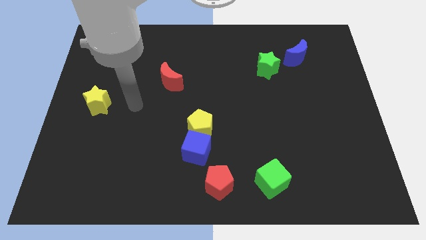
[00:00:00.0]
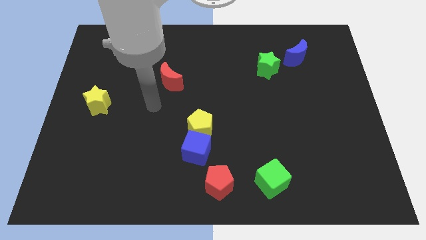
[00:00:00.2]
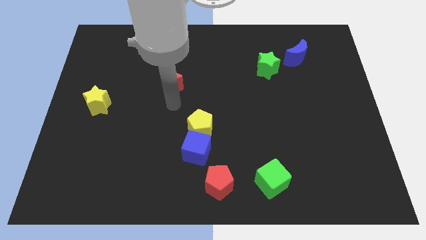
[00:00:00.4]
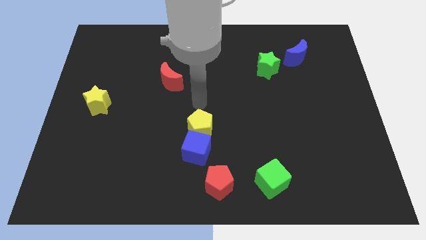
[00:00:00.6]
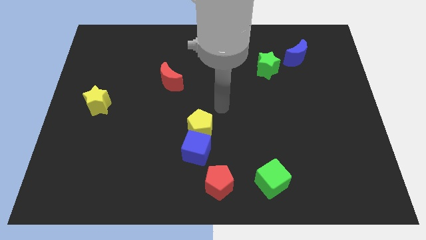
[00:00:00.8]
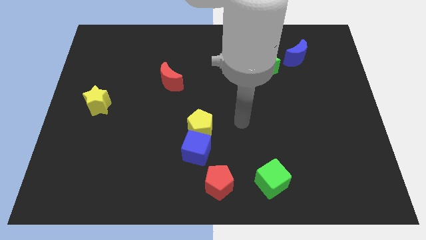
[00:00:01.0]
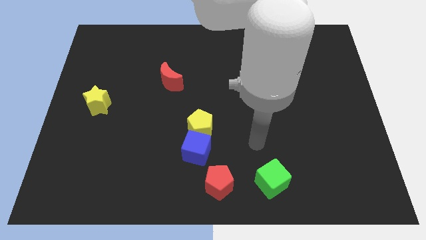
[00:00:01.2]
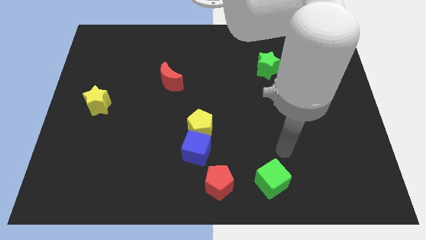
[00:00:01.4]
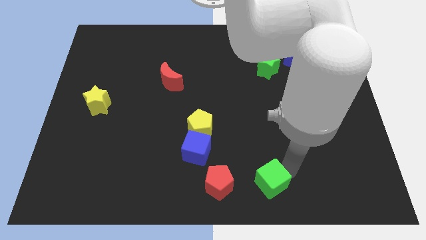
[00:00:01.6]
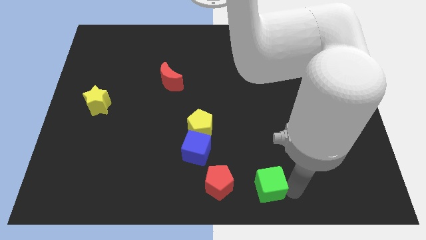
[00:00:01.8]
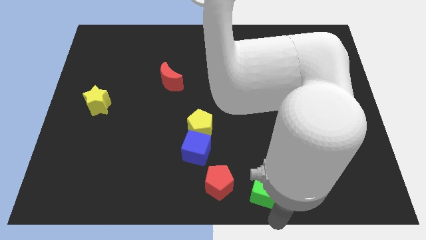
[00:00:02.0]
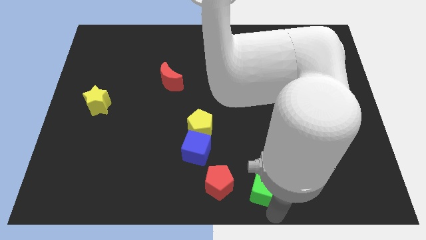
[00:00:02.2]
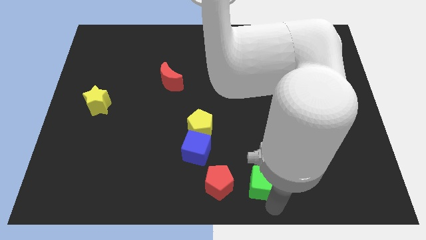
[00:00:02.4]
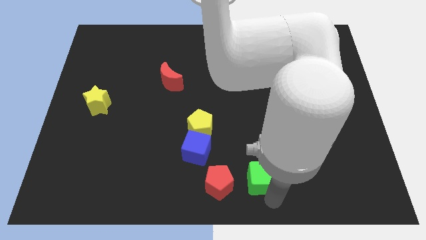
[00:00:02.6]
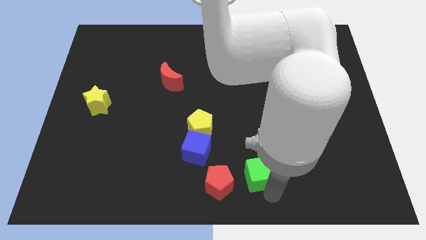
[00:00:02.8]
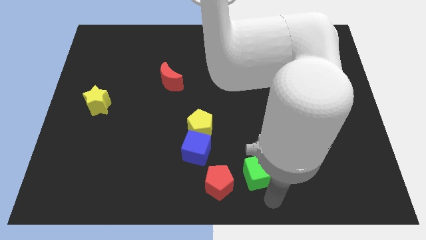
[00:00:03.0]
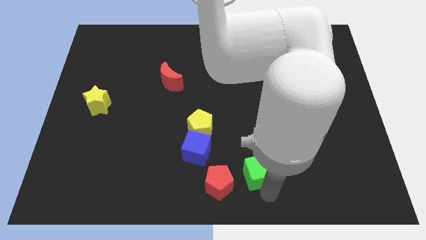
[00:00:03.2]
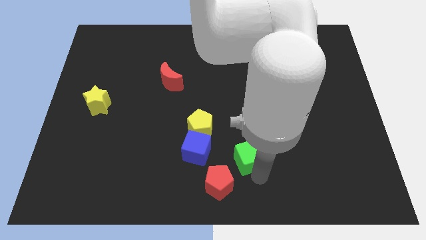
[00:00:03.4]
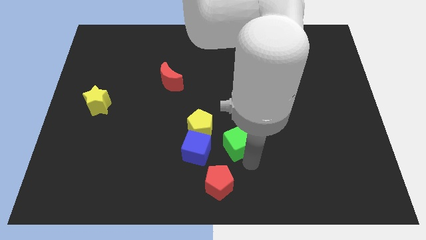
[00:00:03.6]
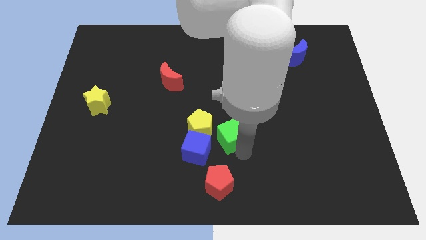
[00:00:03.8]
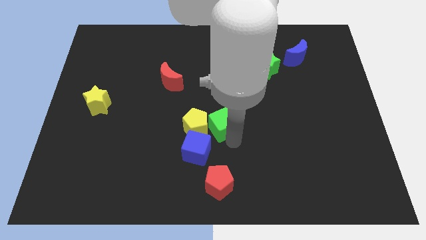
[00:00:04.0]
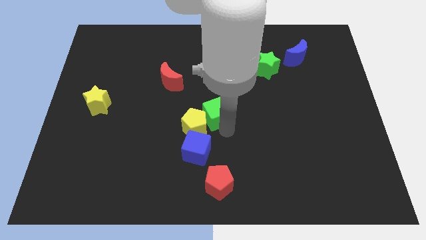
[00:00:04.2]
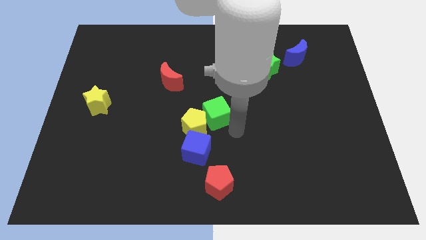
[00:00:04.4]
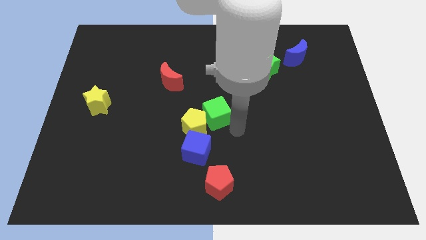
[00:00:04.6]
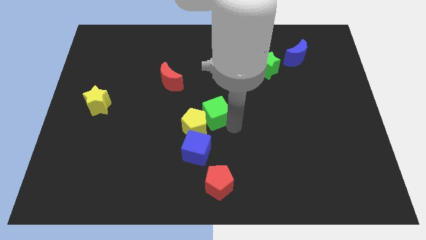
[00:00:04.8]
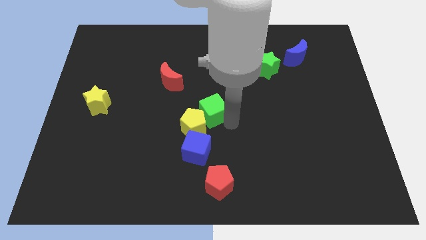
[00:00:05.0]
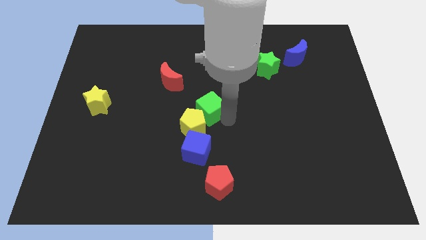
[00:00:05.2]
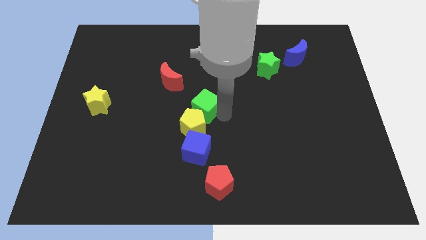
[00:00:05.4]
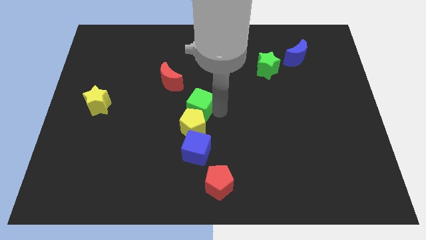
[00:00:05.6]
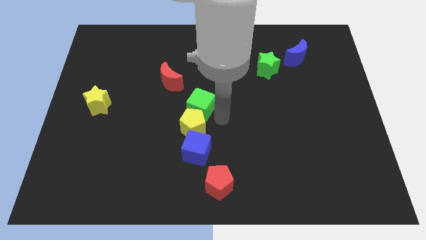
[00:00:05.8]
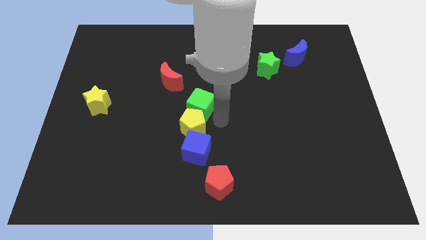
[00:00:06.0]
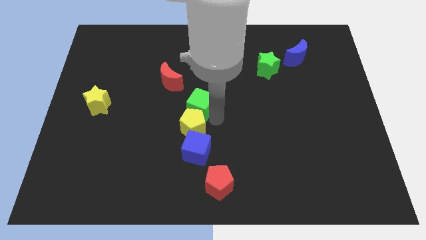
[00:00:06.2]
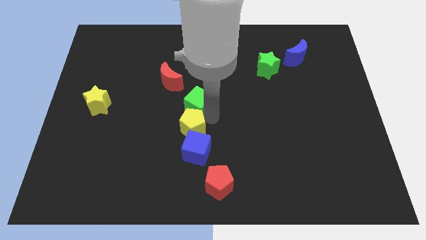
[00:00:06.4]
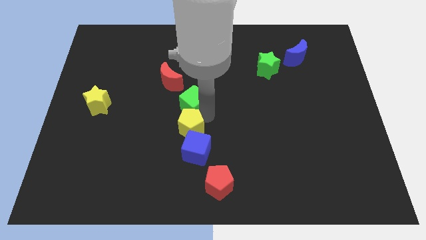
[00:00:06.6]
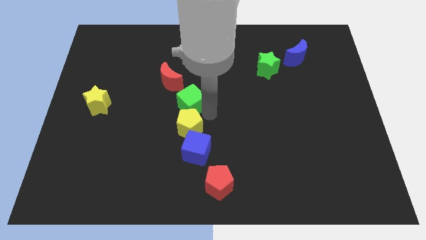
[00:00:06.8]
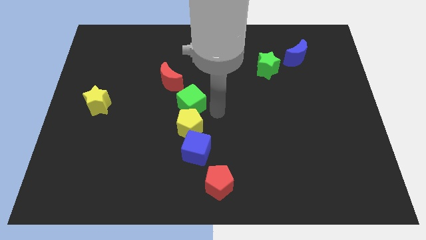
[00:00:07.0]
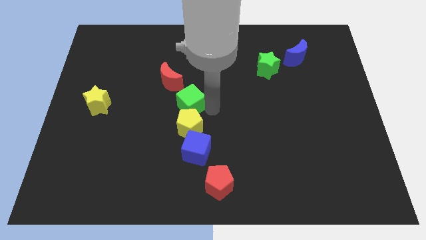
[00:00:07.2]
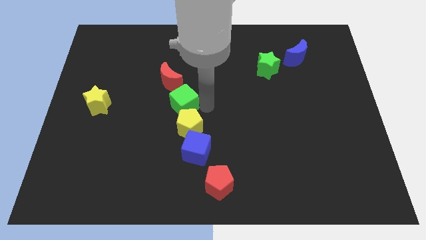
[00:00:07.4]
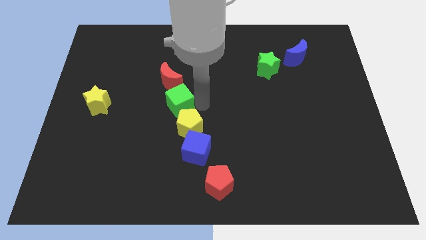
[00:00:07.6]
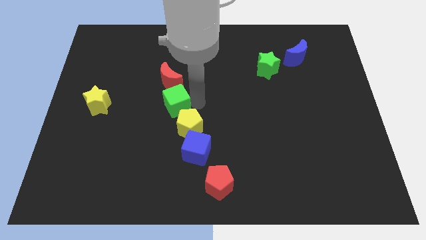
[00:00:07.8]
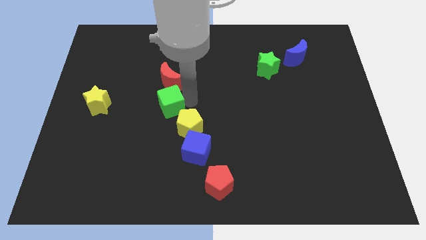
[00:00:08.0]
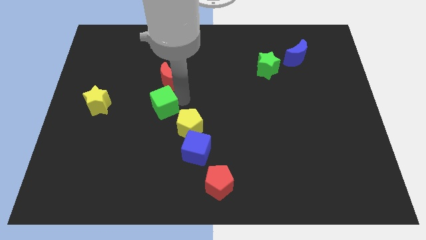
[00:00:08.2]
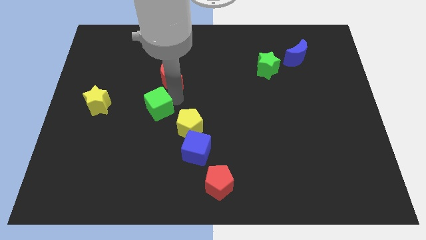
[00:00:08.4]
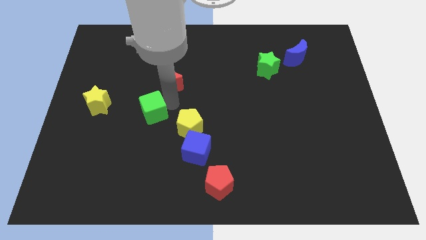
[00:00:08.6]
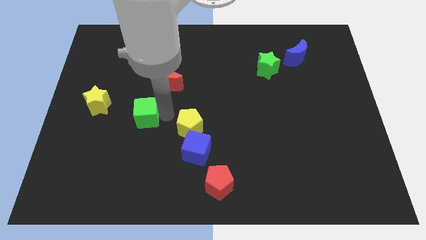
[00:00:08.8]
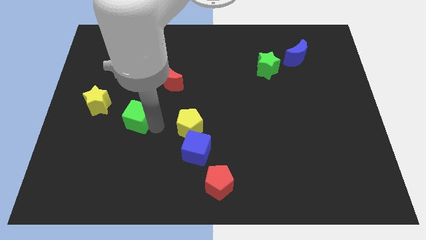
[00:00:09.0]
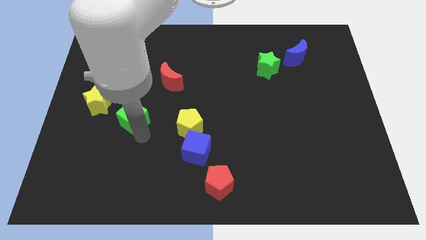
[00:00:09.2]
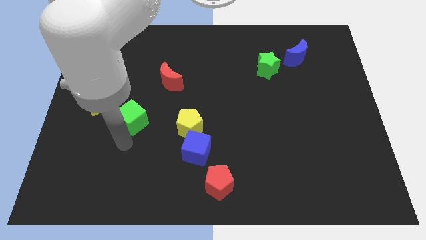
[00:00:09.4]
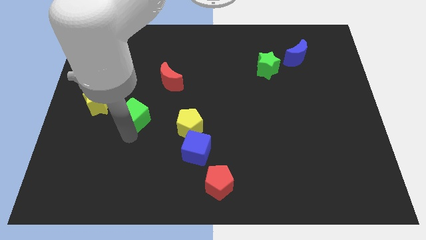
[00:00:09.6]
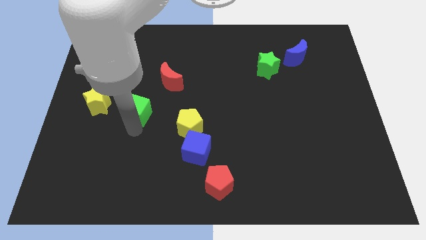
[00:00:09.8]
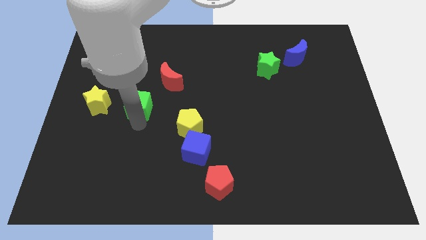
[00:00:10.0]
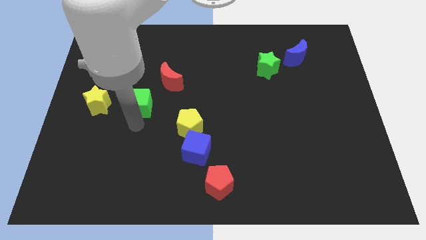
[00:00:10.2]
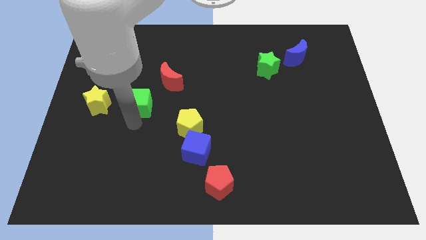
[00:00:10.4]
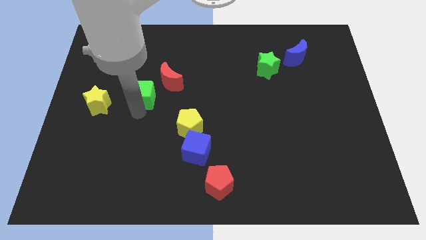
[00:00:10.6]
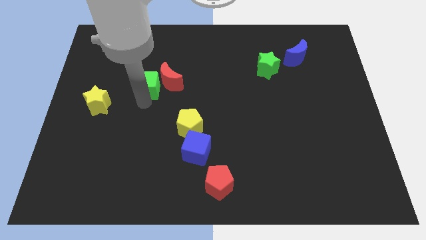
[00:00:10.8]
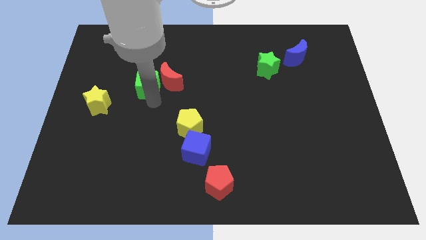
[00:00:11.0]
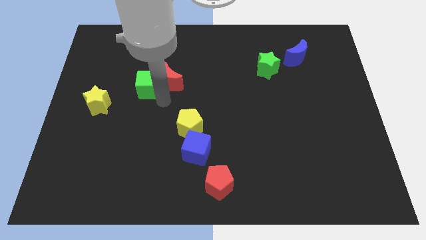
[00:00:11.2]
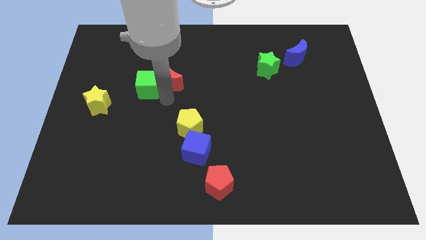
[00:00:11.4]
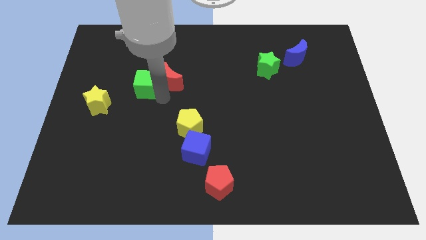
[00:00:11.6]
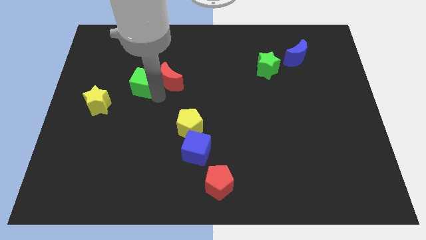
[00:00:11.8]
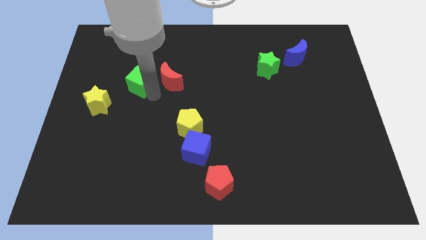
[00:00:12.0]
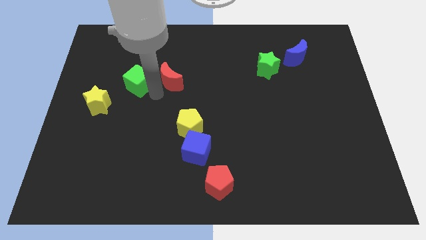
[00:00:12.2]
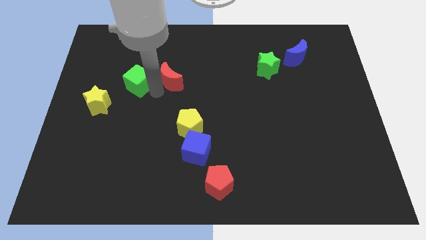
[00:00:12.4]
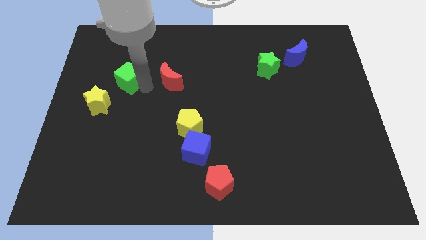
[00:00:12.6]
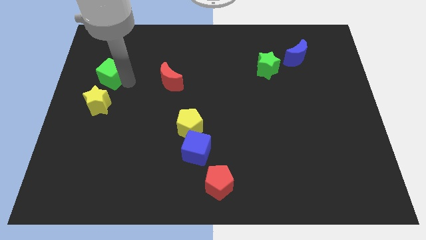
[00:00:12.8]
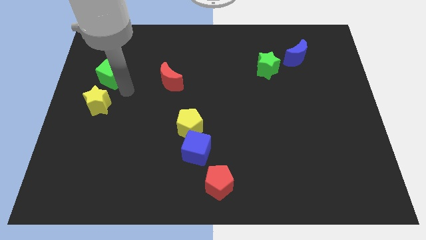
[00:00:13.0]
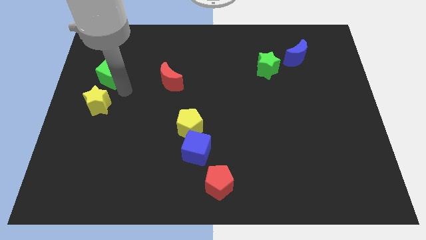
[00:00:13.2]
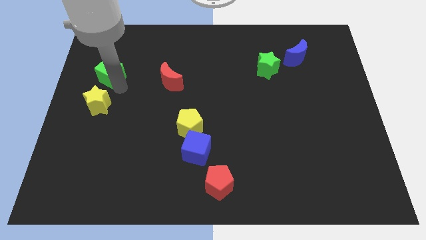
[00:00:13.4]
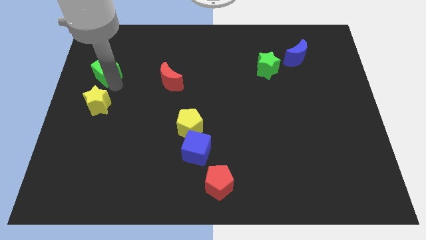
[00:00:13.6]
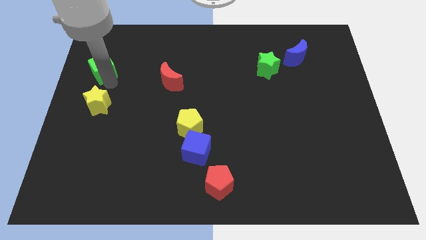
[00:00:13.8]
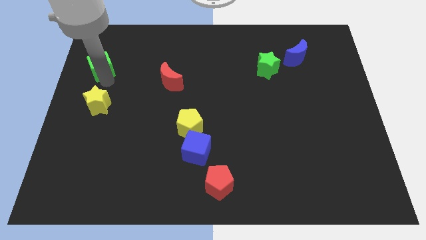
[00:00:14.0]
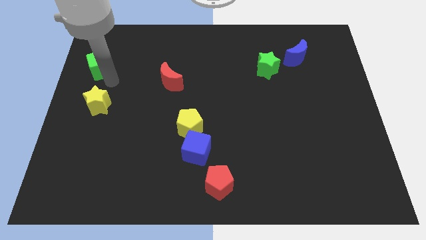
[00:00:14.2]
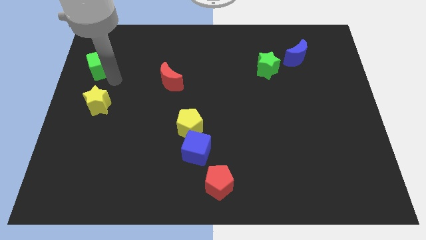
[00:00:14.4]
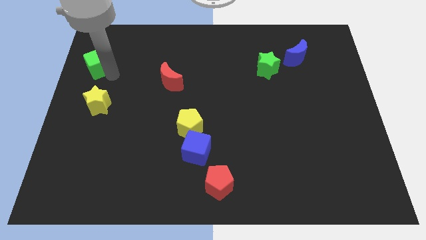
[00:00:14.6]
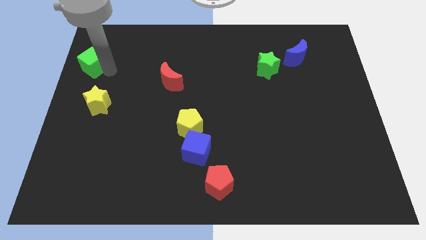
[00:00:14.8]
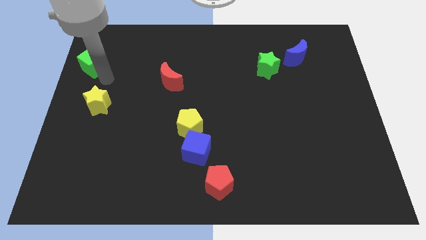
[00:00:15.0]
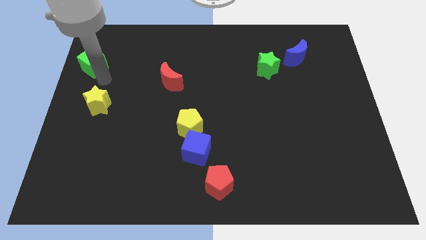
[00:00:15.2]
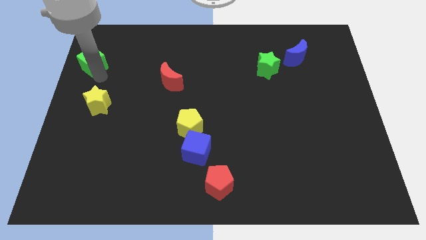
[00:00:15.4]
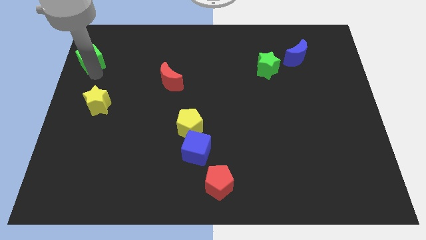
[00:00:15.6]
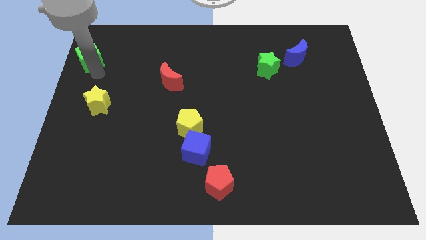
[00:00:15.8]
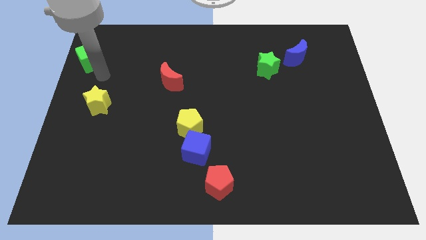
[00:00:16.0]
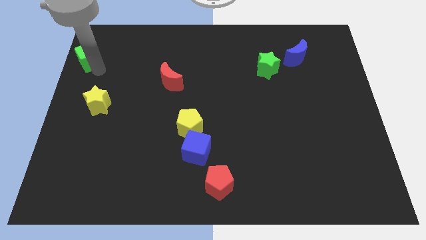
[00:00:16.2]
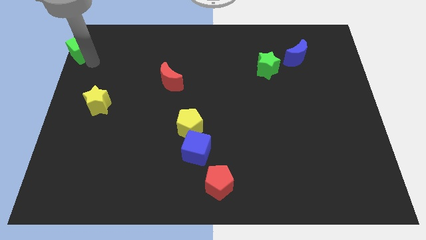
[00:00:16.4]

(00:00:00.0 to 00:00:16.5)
push the green cube to the top left corner
